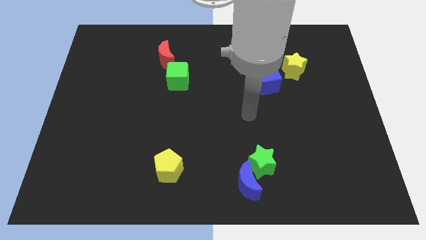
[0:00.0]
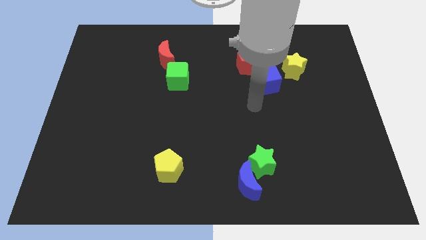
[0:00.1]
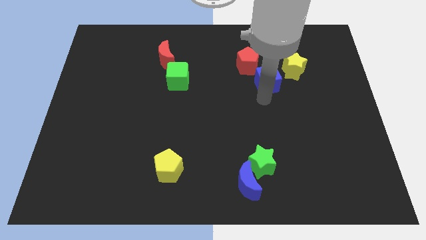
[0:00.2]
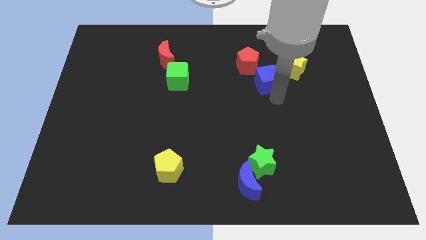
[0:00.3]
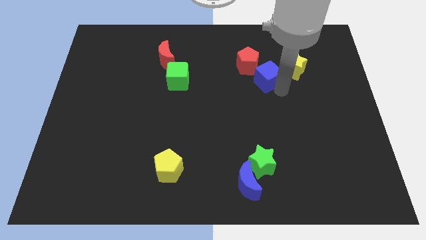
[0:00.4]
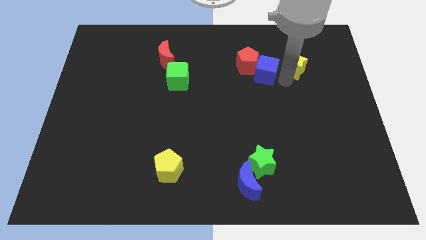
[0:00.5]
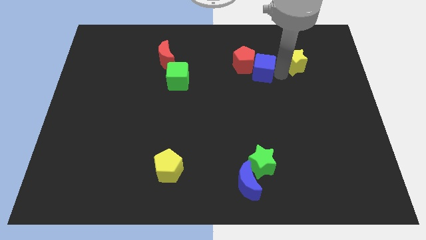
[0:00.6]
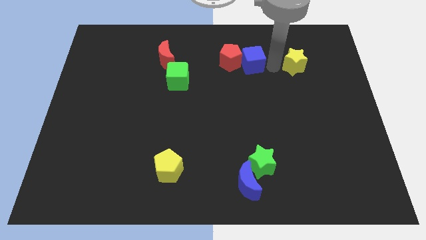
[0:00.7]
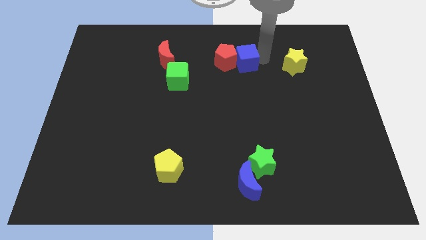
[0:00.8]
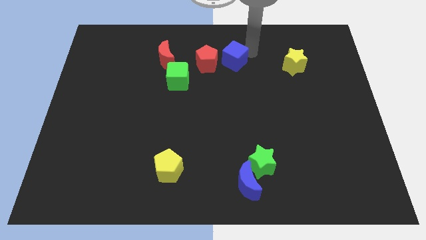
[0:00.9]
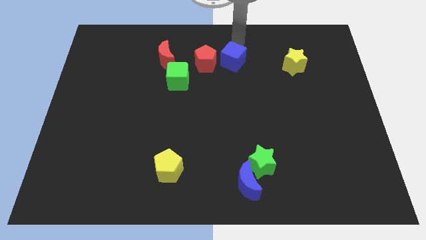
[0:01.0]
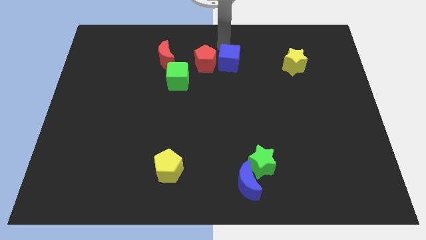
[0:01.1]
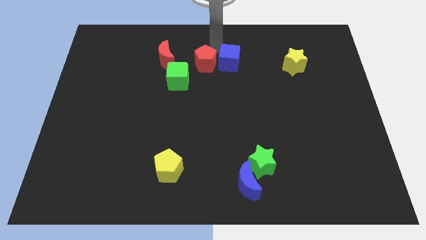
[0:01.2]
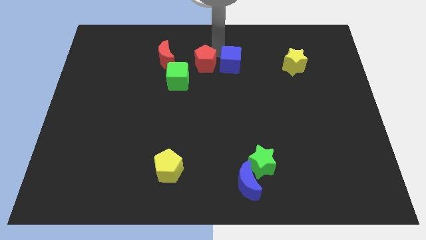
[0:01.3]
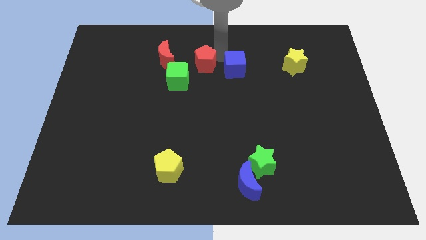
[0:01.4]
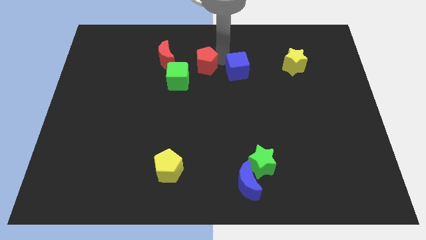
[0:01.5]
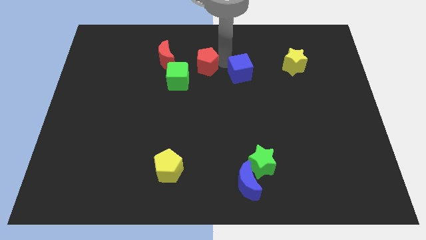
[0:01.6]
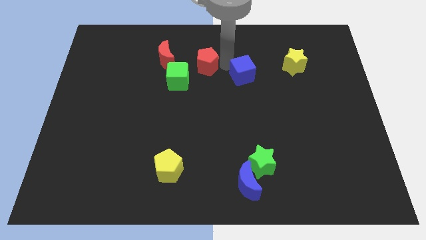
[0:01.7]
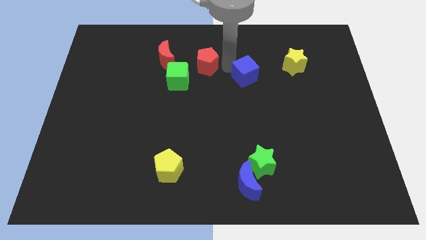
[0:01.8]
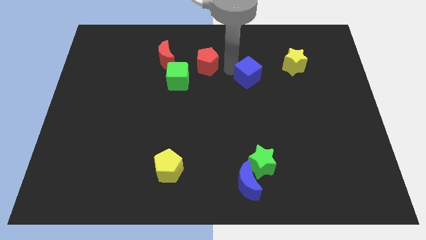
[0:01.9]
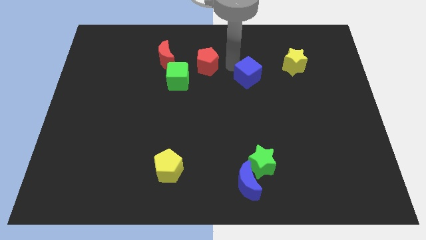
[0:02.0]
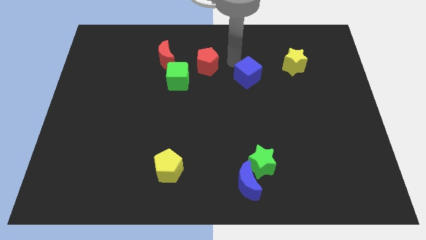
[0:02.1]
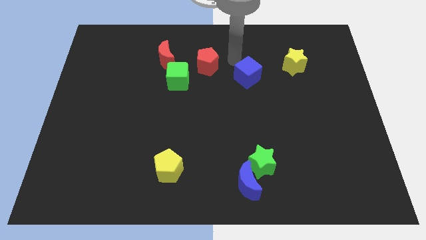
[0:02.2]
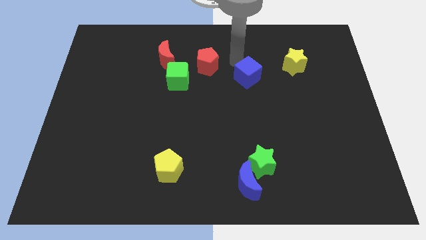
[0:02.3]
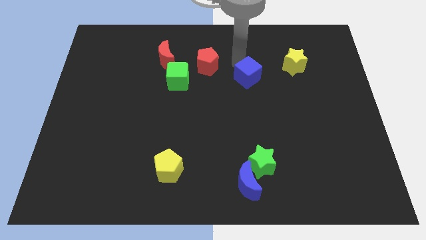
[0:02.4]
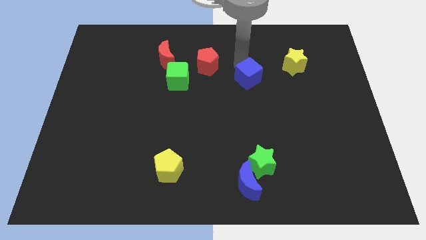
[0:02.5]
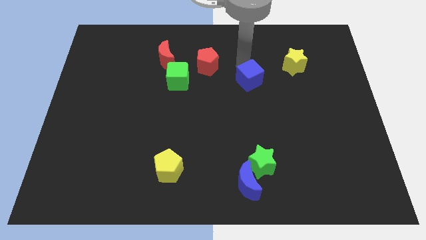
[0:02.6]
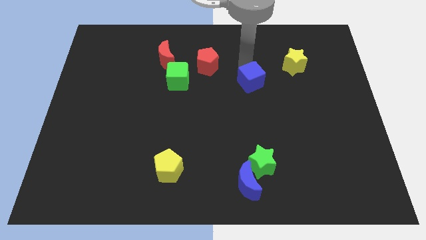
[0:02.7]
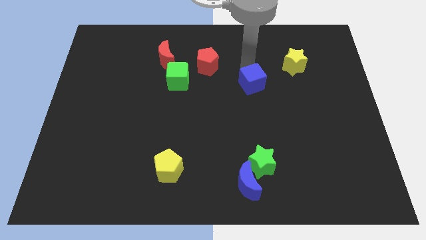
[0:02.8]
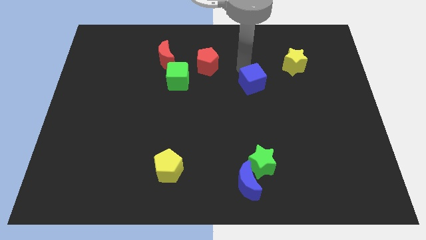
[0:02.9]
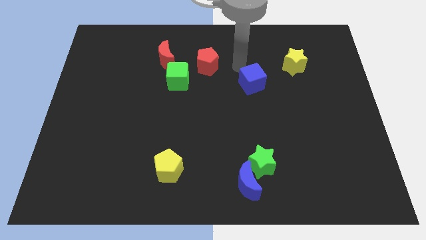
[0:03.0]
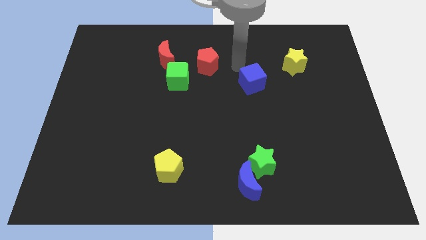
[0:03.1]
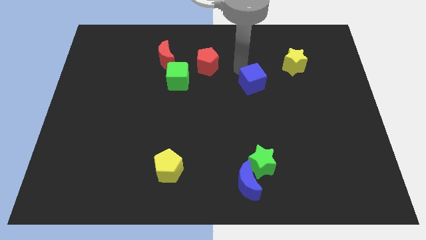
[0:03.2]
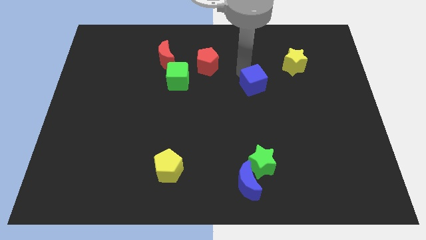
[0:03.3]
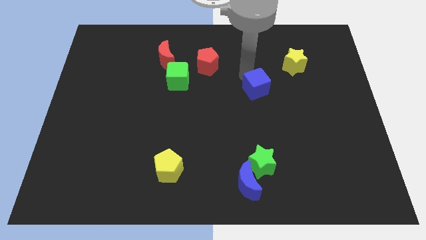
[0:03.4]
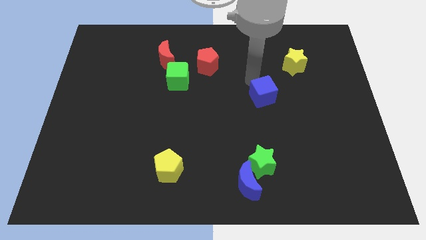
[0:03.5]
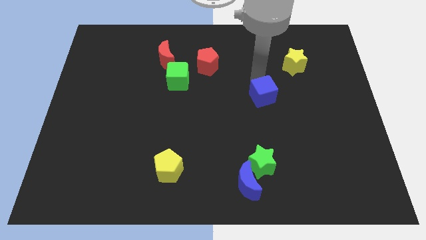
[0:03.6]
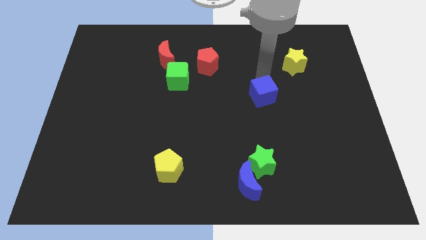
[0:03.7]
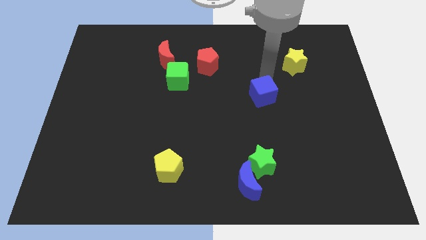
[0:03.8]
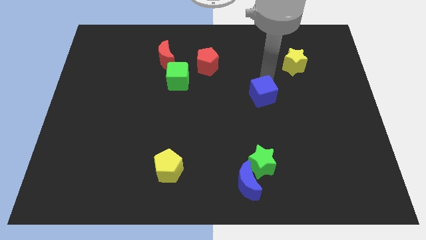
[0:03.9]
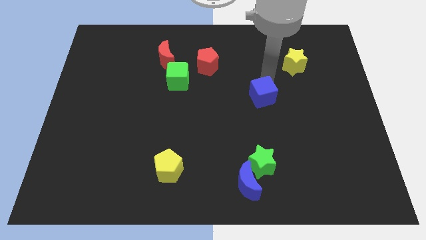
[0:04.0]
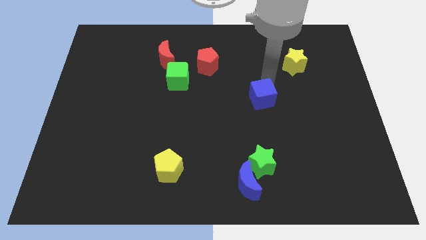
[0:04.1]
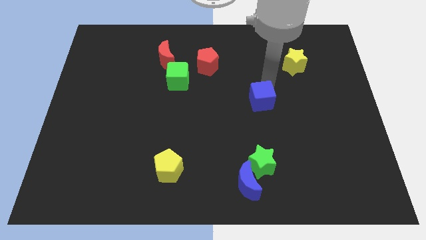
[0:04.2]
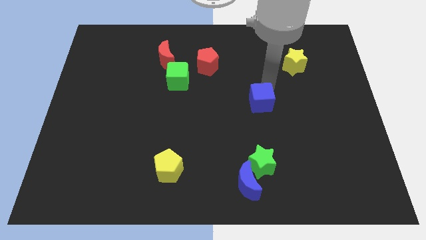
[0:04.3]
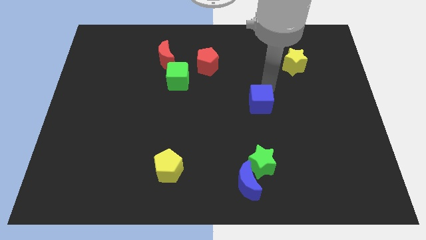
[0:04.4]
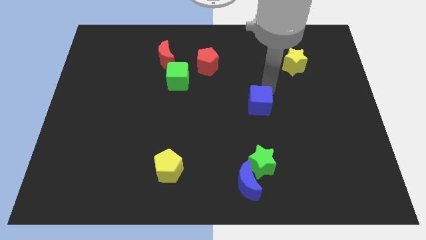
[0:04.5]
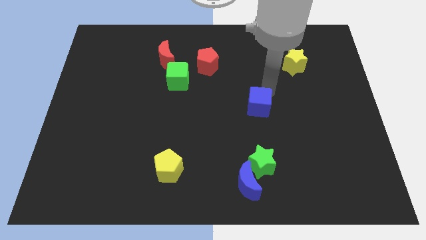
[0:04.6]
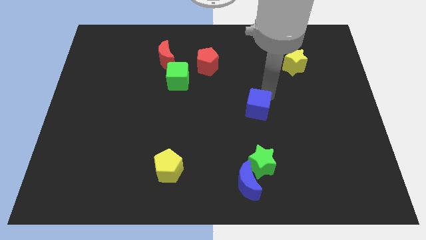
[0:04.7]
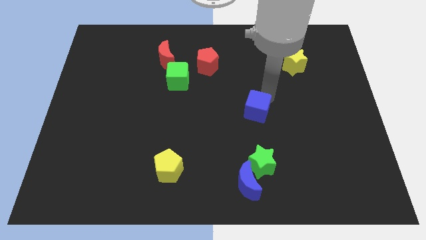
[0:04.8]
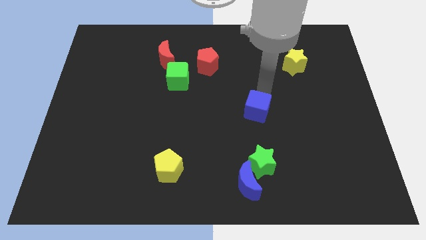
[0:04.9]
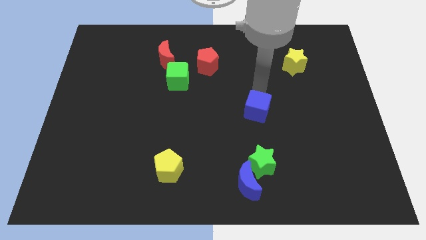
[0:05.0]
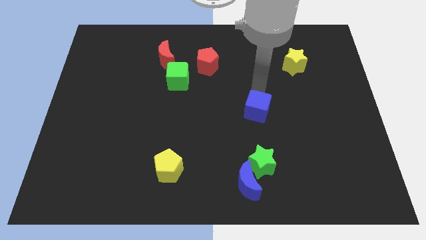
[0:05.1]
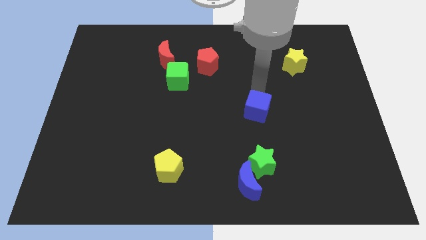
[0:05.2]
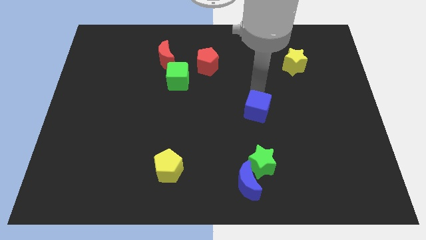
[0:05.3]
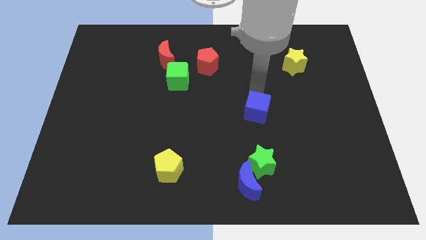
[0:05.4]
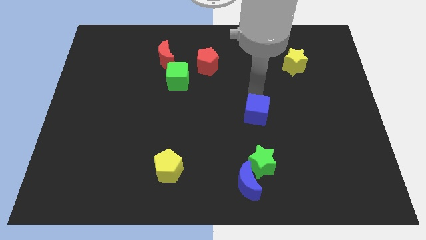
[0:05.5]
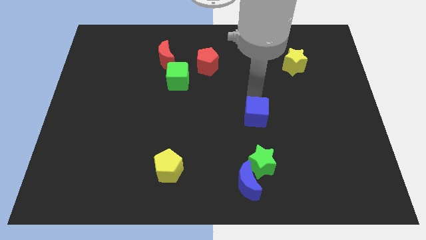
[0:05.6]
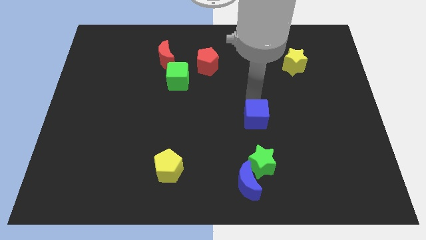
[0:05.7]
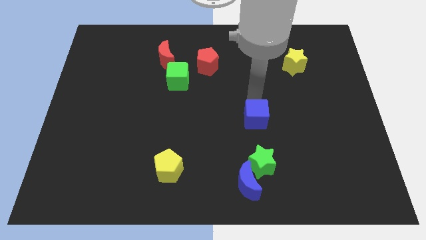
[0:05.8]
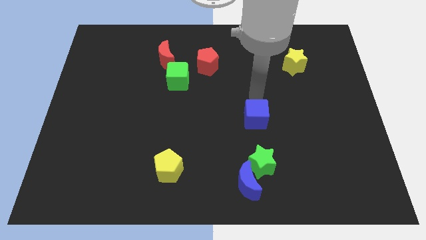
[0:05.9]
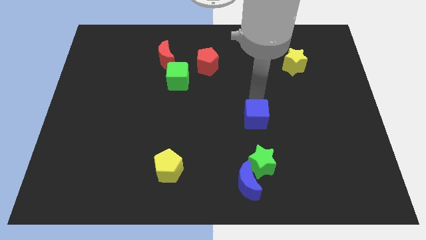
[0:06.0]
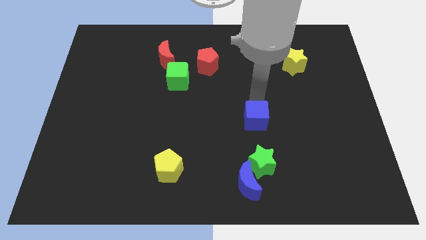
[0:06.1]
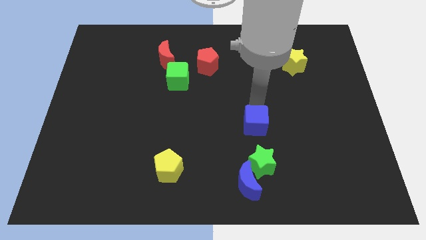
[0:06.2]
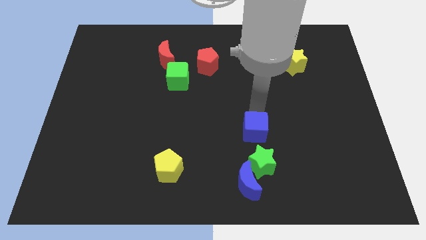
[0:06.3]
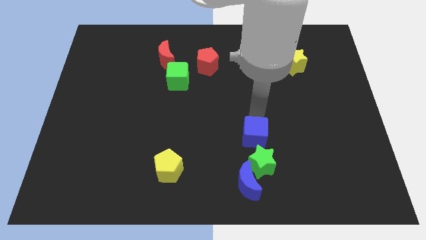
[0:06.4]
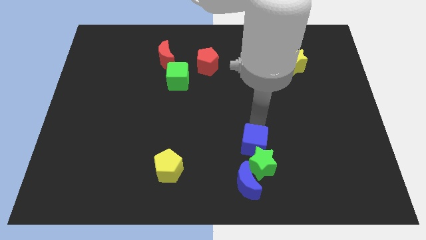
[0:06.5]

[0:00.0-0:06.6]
put the blue cube to the green star
